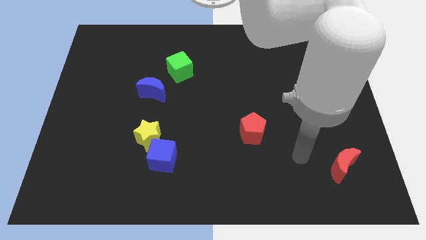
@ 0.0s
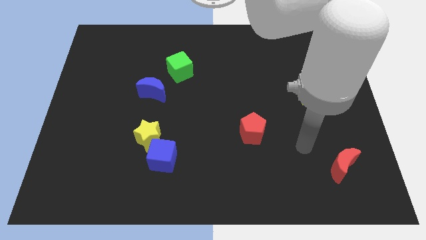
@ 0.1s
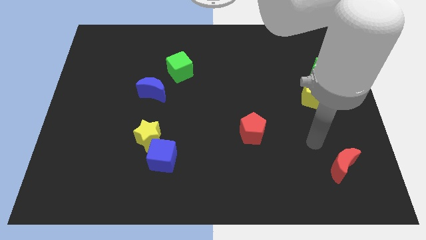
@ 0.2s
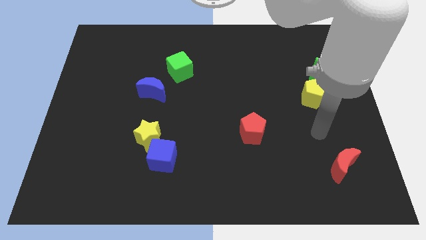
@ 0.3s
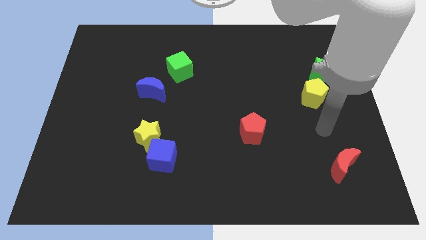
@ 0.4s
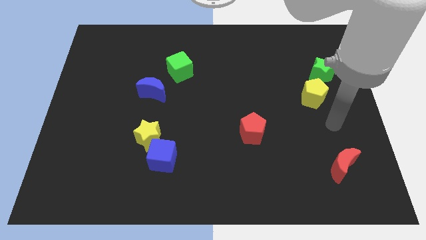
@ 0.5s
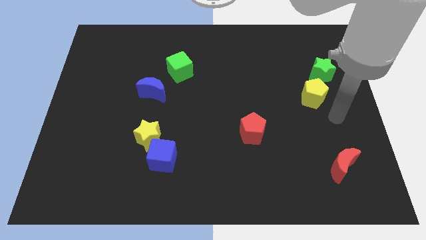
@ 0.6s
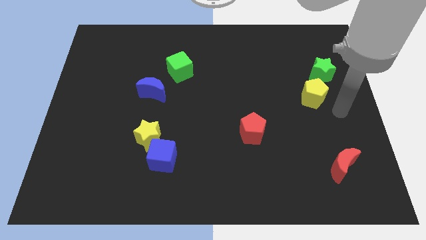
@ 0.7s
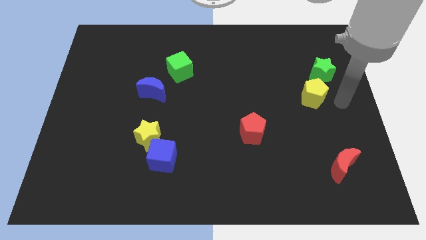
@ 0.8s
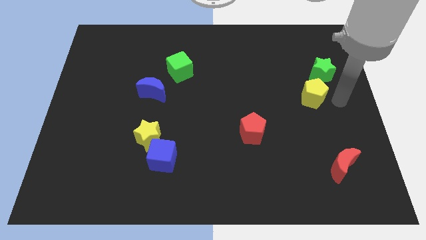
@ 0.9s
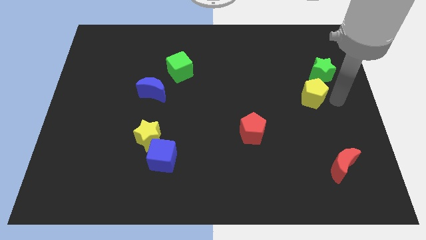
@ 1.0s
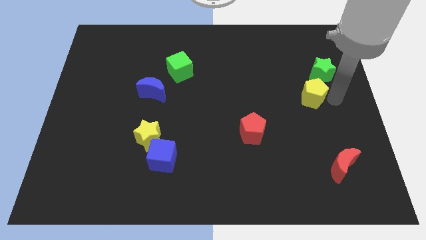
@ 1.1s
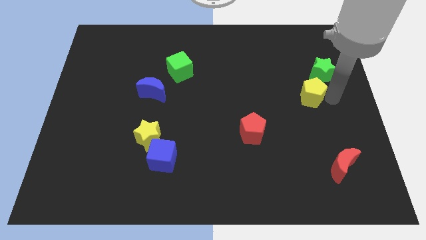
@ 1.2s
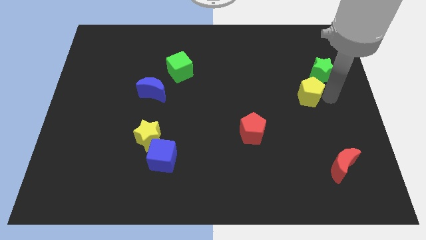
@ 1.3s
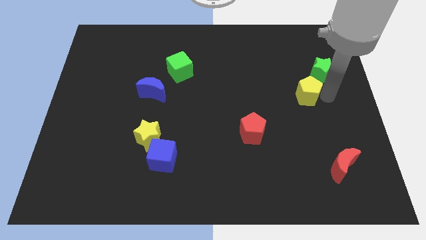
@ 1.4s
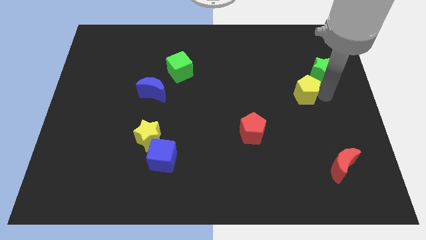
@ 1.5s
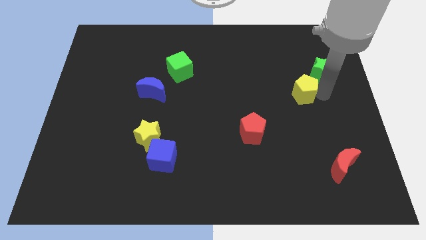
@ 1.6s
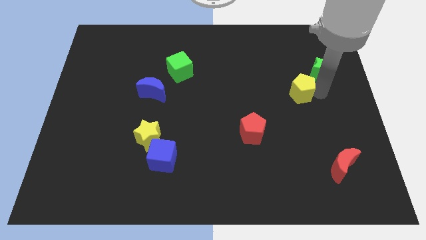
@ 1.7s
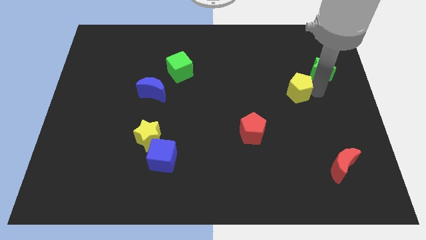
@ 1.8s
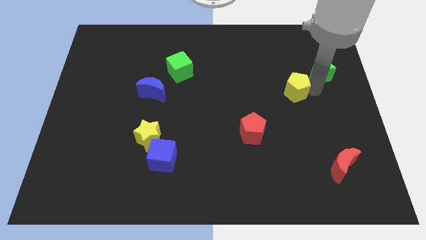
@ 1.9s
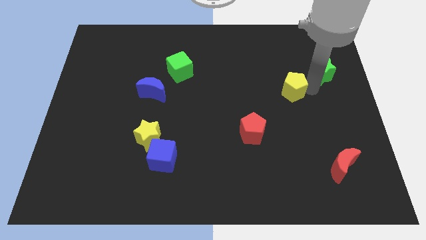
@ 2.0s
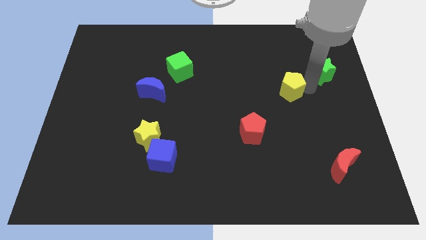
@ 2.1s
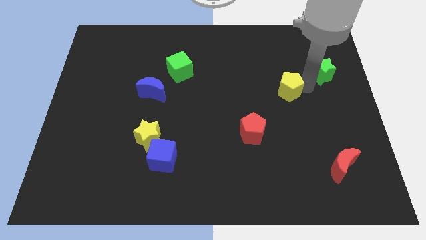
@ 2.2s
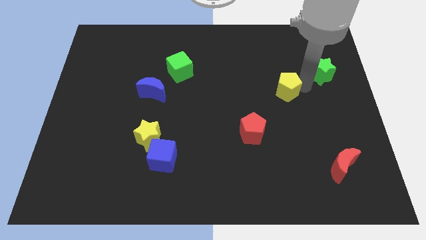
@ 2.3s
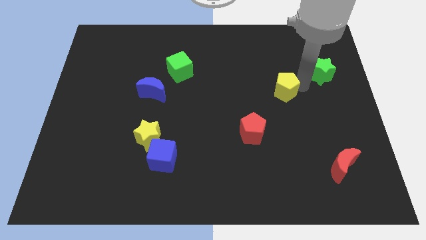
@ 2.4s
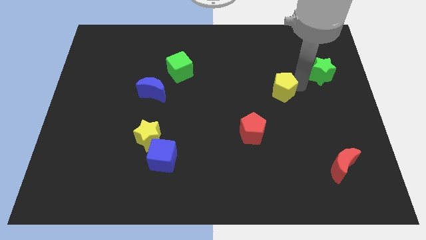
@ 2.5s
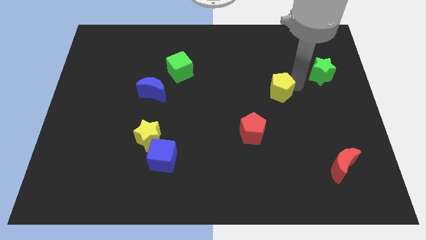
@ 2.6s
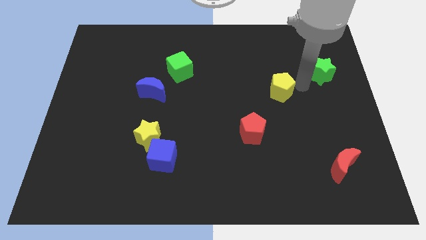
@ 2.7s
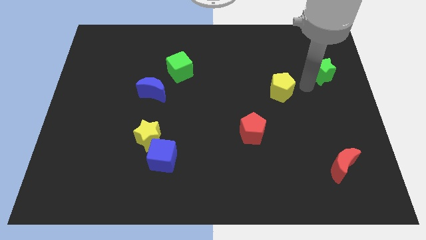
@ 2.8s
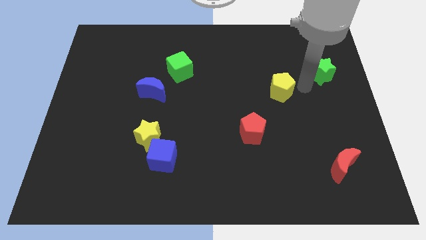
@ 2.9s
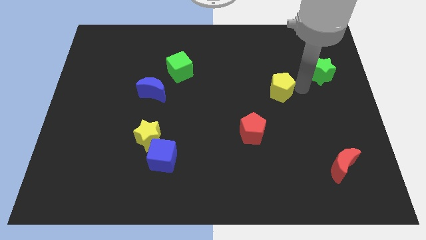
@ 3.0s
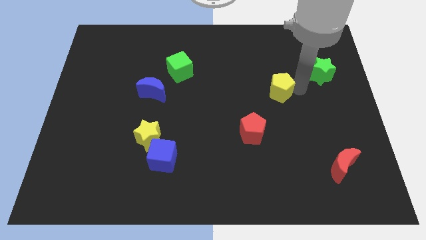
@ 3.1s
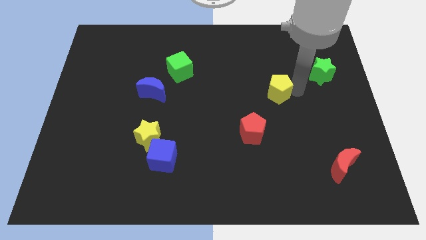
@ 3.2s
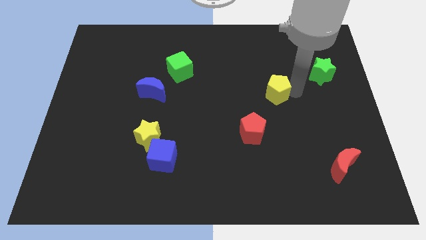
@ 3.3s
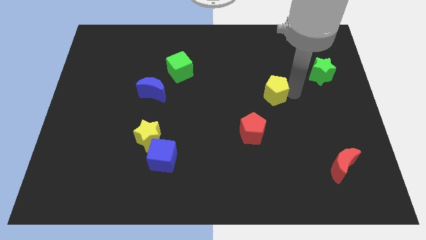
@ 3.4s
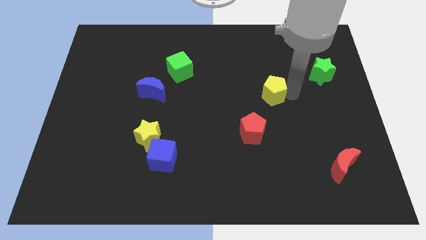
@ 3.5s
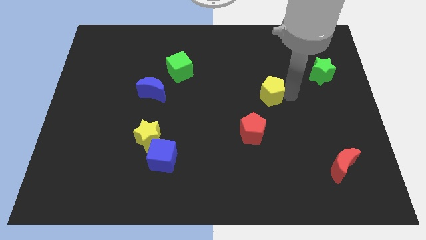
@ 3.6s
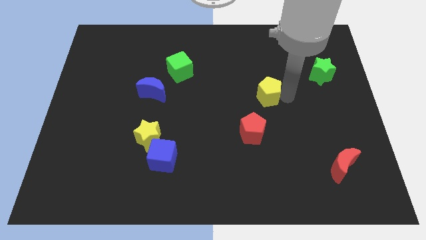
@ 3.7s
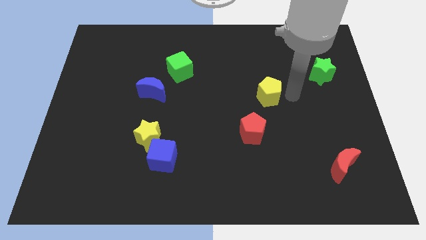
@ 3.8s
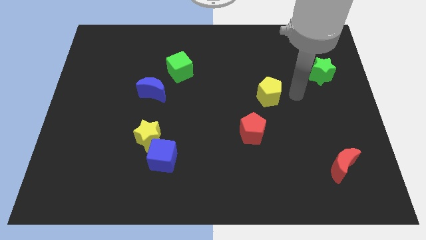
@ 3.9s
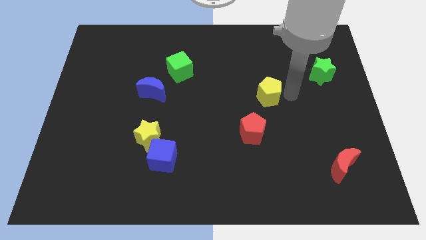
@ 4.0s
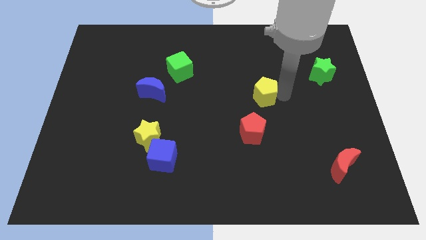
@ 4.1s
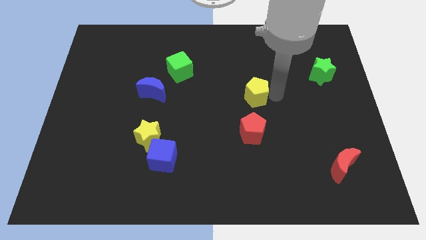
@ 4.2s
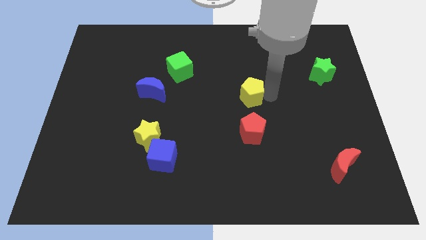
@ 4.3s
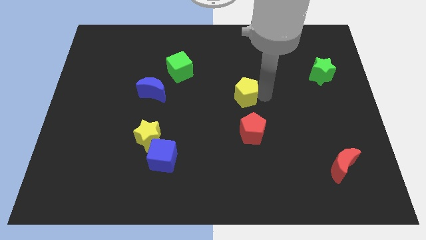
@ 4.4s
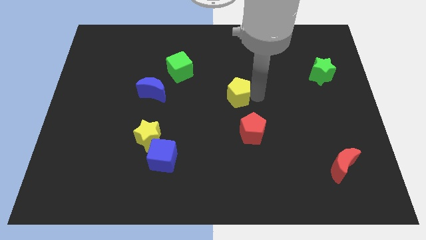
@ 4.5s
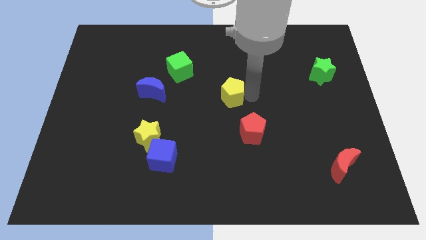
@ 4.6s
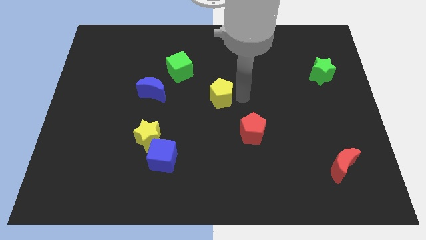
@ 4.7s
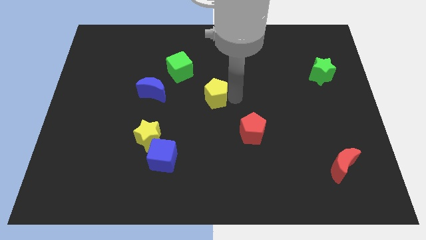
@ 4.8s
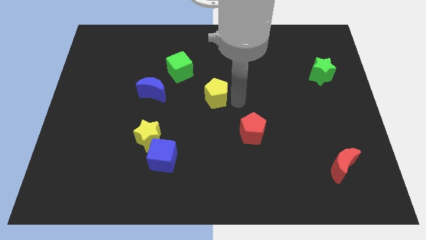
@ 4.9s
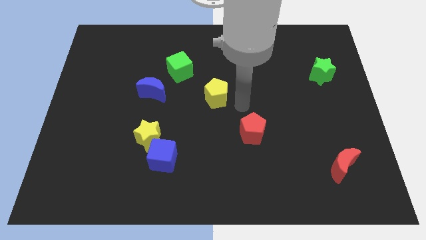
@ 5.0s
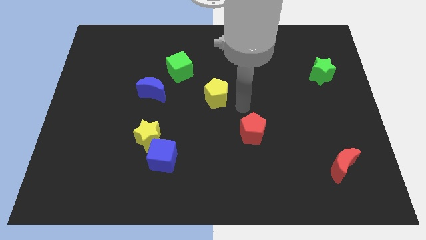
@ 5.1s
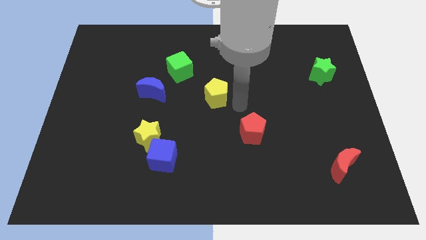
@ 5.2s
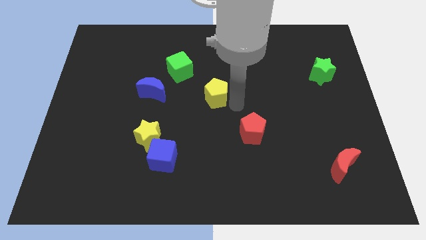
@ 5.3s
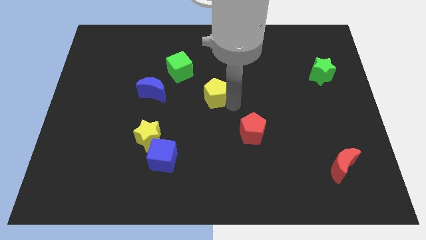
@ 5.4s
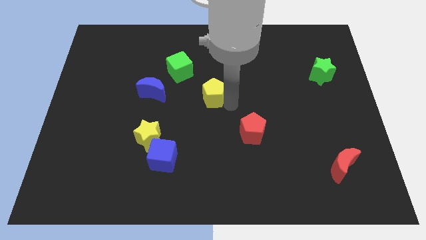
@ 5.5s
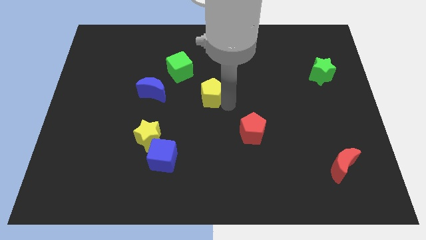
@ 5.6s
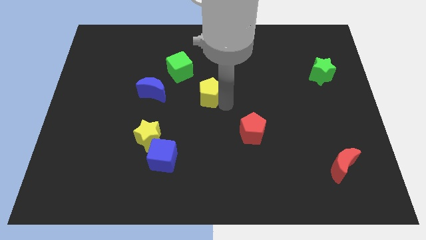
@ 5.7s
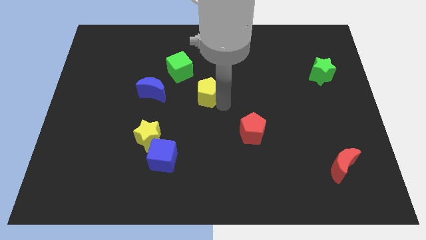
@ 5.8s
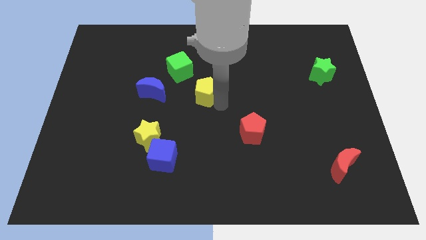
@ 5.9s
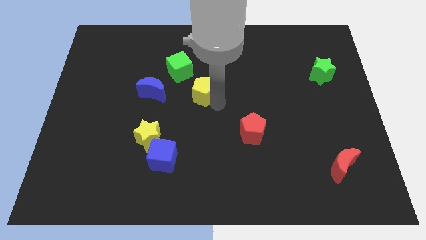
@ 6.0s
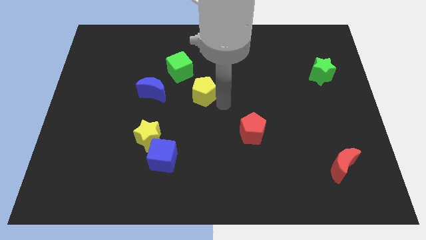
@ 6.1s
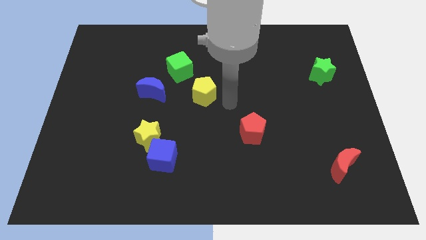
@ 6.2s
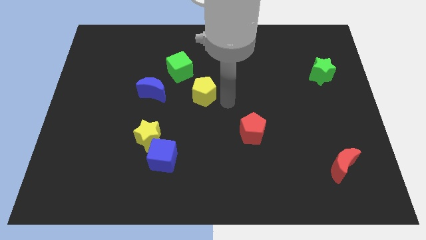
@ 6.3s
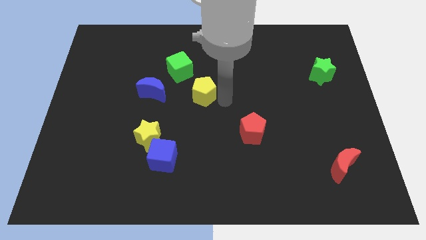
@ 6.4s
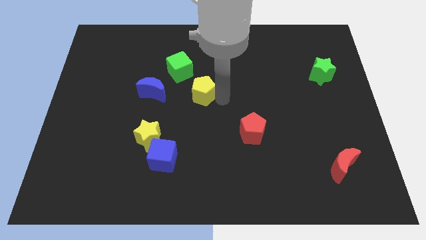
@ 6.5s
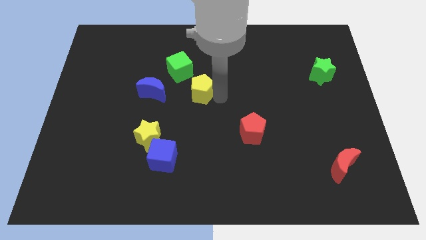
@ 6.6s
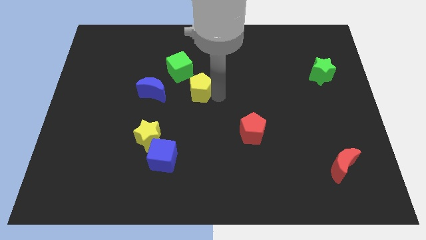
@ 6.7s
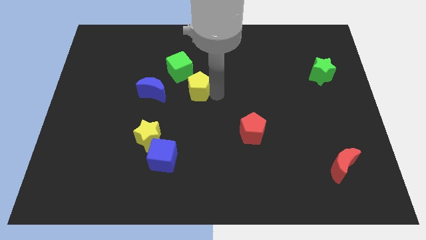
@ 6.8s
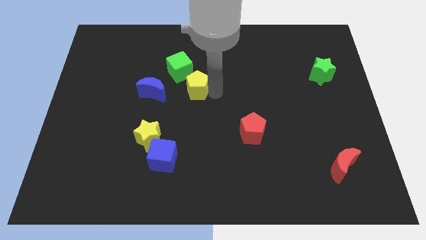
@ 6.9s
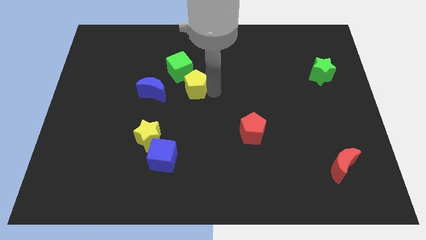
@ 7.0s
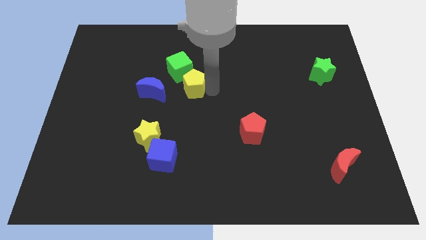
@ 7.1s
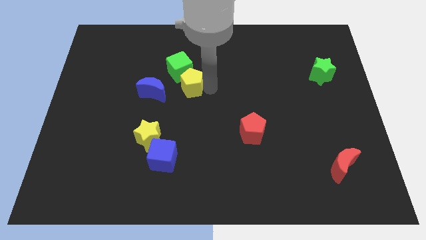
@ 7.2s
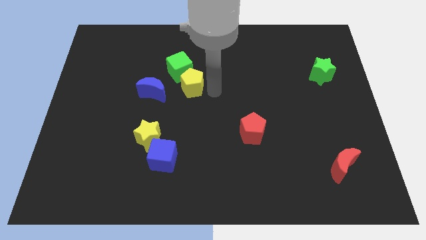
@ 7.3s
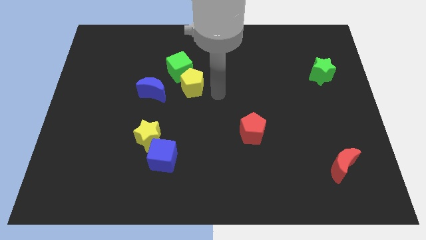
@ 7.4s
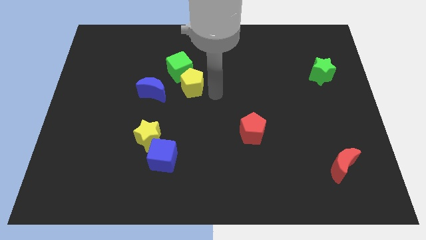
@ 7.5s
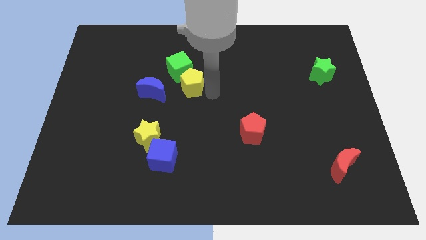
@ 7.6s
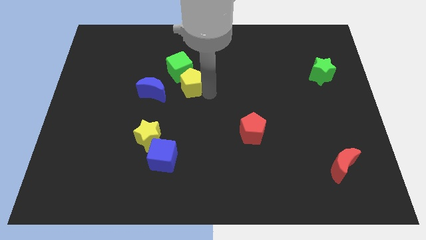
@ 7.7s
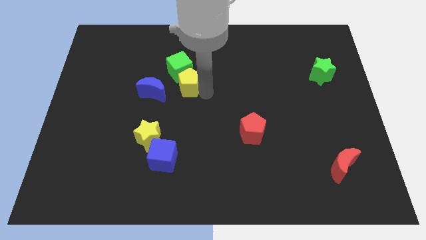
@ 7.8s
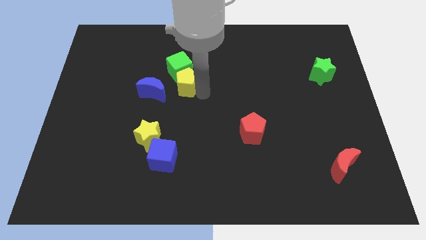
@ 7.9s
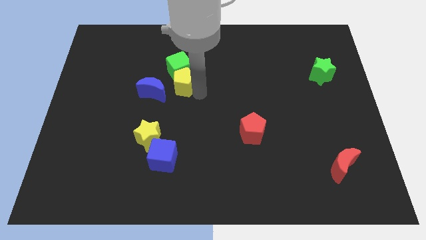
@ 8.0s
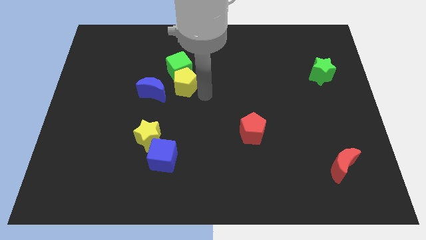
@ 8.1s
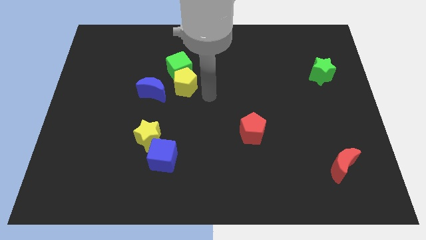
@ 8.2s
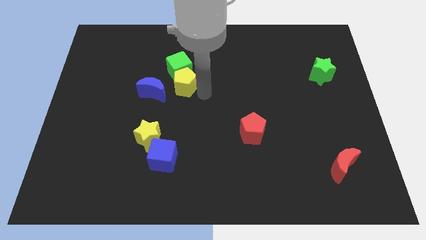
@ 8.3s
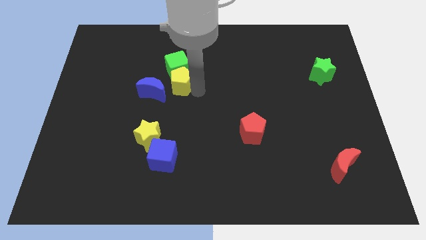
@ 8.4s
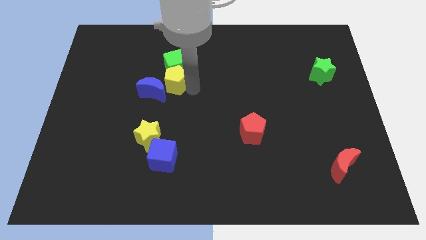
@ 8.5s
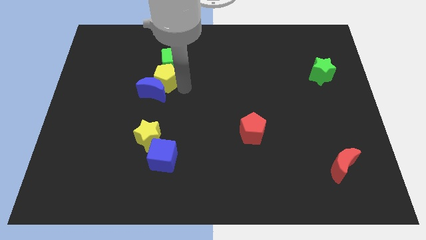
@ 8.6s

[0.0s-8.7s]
slide the yellow pentagon to the top of the blue moon
